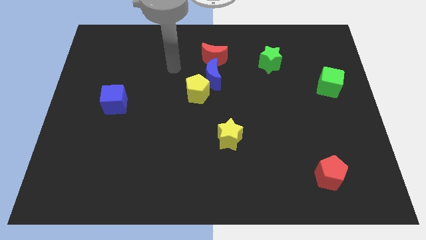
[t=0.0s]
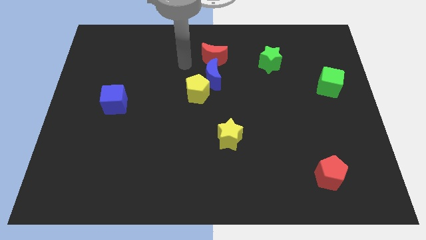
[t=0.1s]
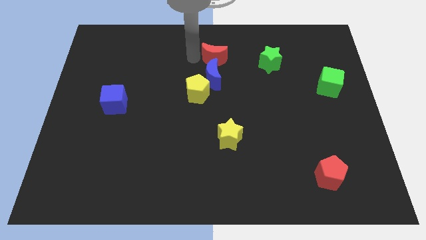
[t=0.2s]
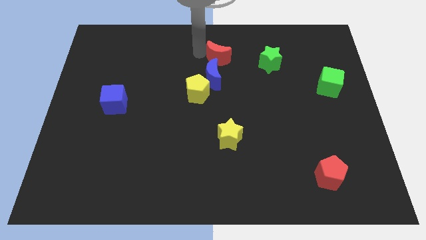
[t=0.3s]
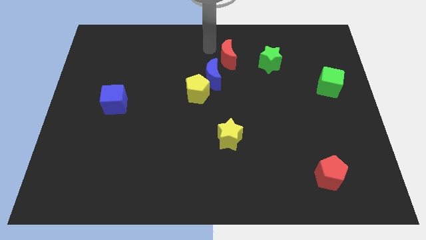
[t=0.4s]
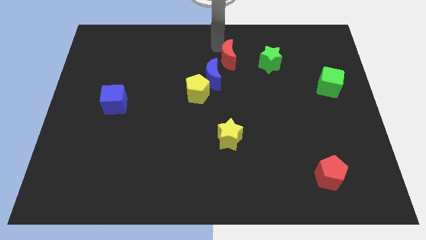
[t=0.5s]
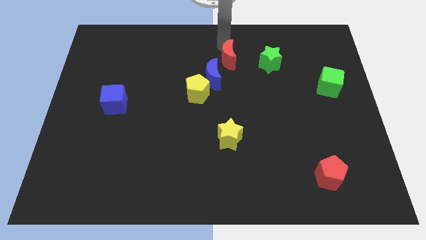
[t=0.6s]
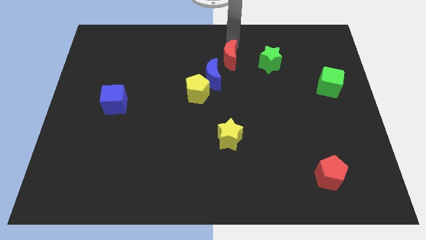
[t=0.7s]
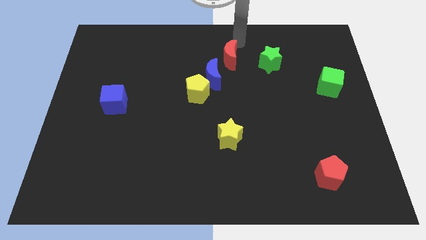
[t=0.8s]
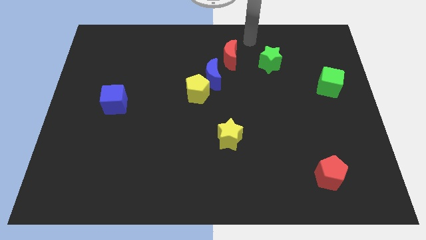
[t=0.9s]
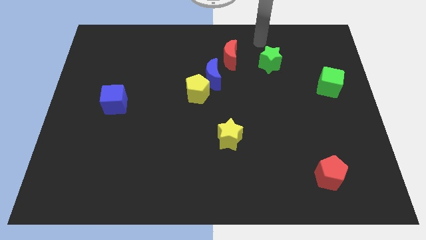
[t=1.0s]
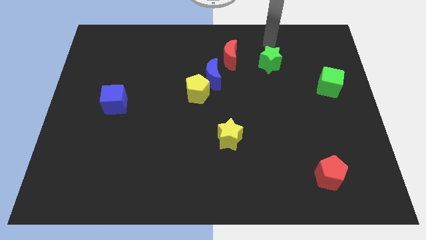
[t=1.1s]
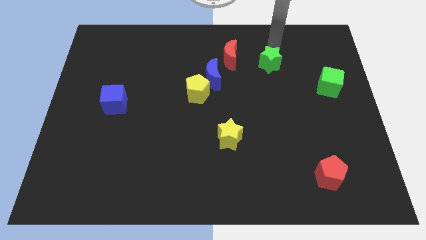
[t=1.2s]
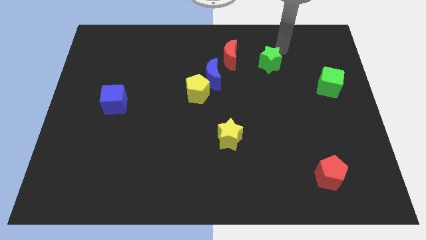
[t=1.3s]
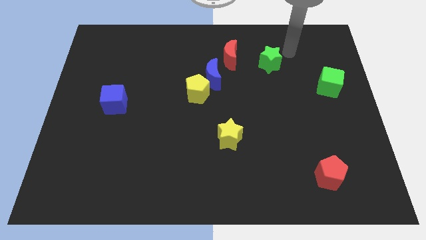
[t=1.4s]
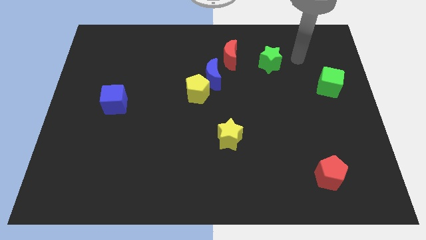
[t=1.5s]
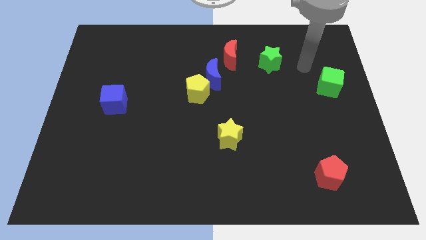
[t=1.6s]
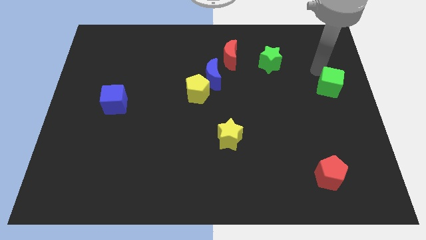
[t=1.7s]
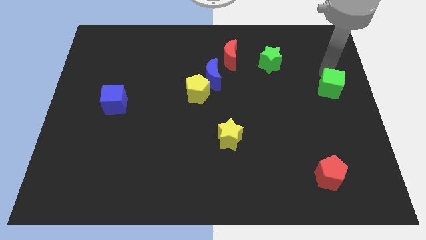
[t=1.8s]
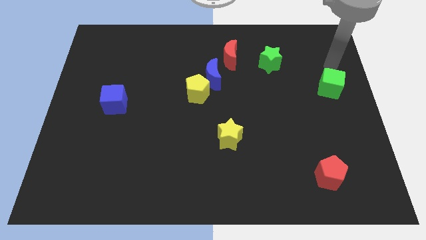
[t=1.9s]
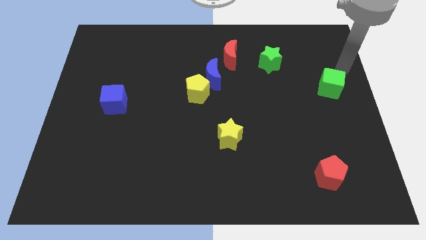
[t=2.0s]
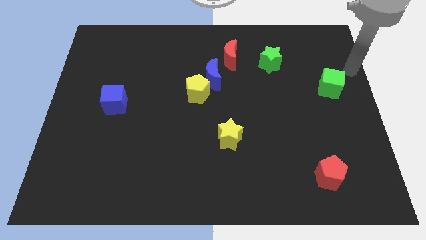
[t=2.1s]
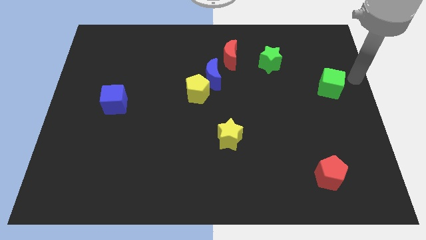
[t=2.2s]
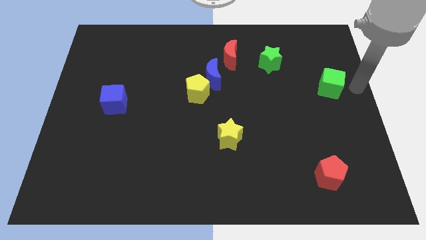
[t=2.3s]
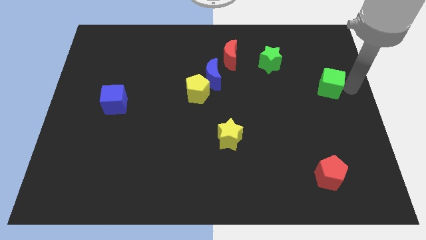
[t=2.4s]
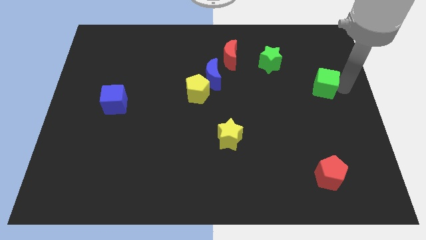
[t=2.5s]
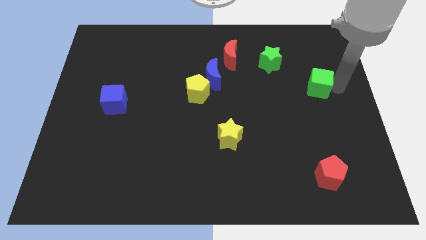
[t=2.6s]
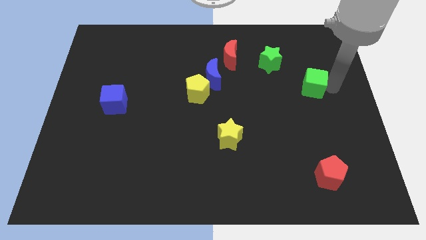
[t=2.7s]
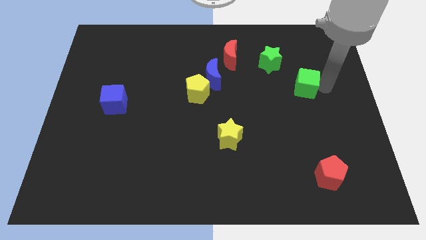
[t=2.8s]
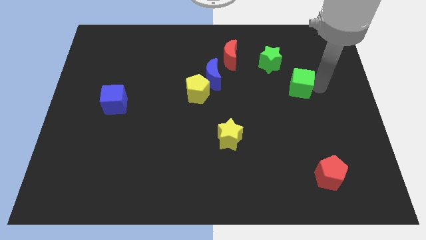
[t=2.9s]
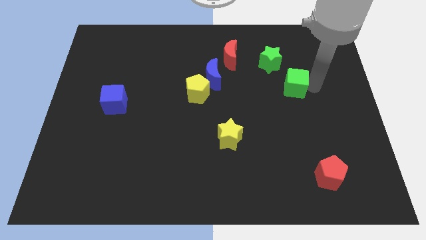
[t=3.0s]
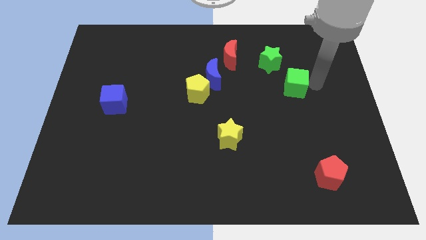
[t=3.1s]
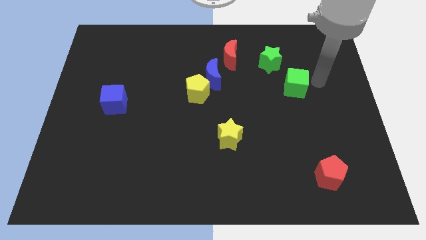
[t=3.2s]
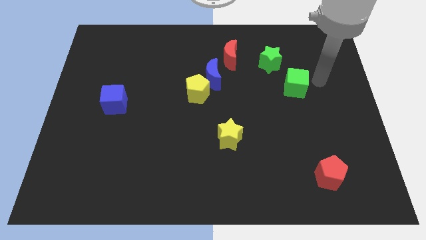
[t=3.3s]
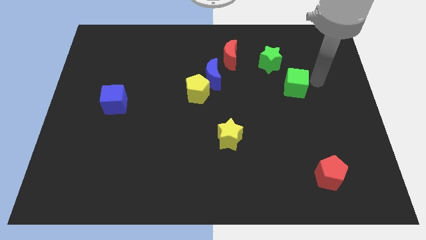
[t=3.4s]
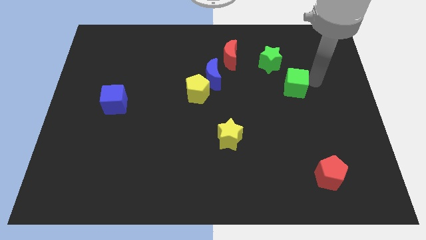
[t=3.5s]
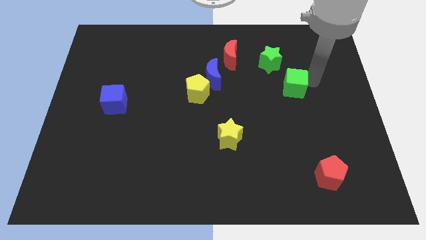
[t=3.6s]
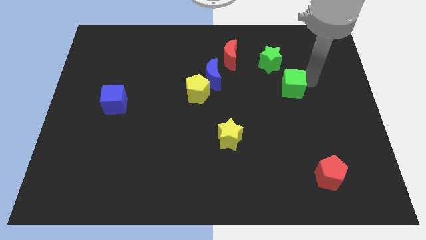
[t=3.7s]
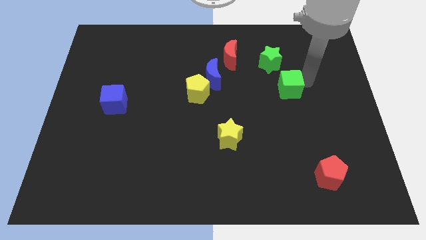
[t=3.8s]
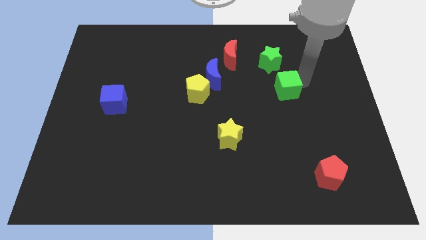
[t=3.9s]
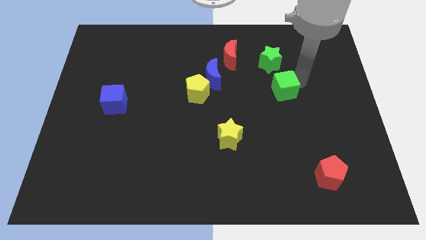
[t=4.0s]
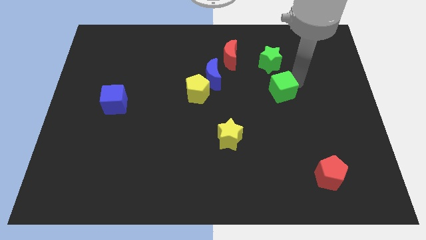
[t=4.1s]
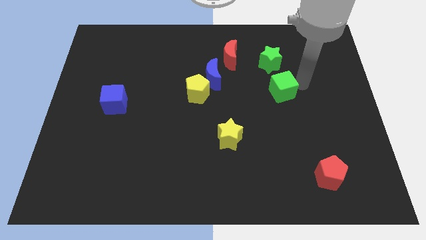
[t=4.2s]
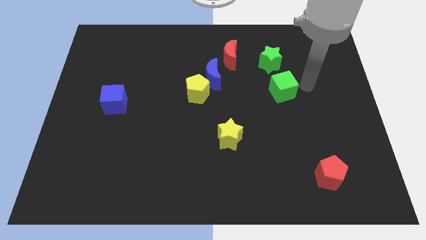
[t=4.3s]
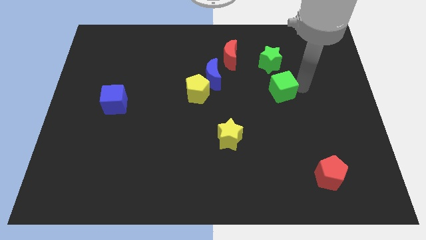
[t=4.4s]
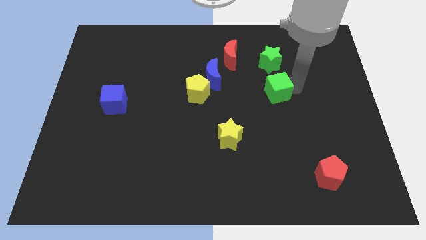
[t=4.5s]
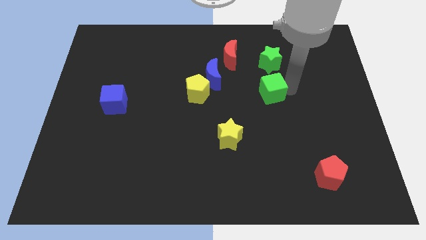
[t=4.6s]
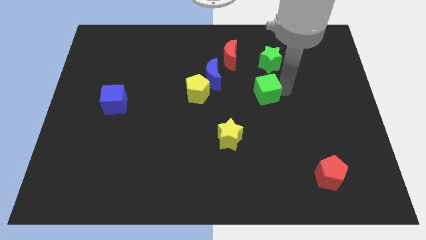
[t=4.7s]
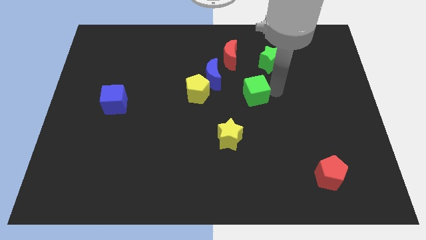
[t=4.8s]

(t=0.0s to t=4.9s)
slide the green cube to the center

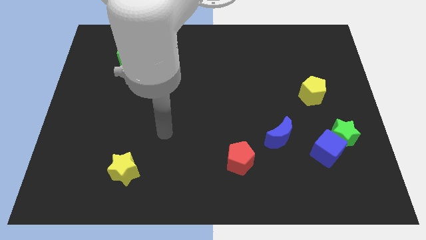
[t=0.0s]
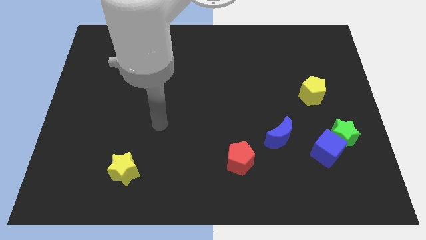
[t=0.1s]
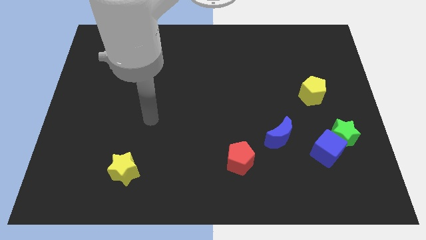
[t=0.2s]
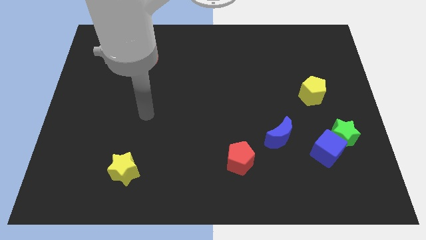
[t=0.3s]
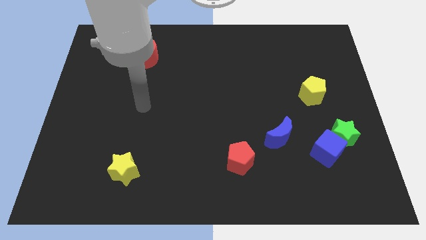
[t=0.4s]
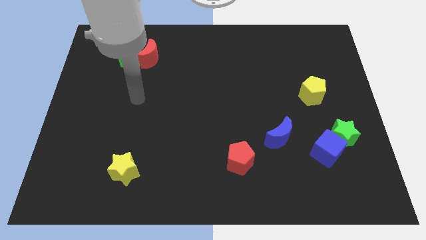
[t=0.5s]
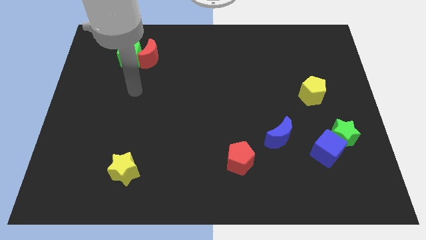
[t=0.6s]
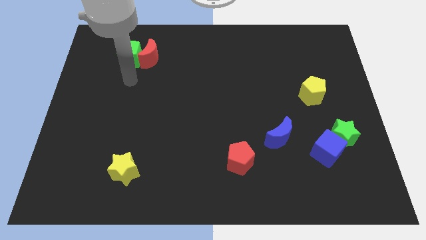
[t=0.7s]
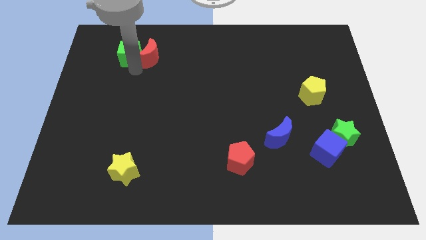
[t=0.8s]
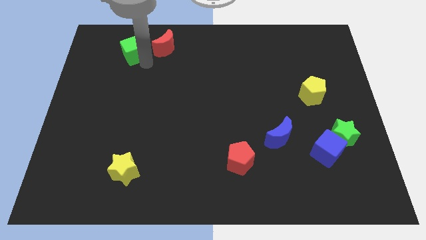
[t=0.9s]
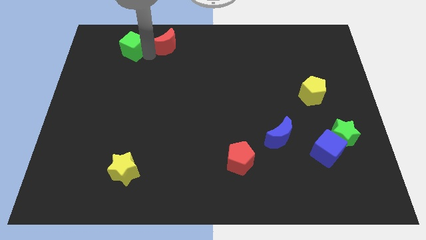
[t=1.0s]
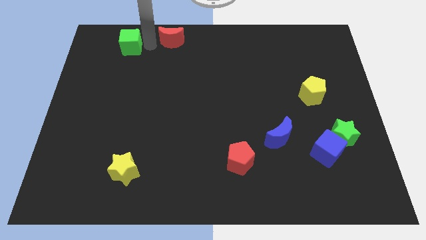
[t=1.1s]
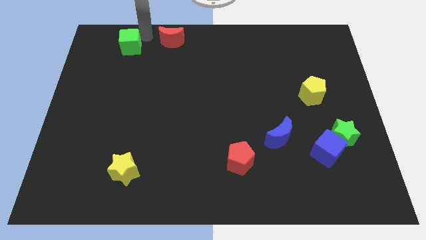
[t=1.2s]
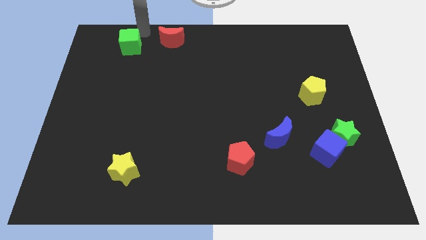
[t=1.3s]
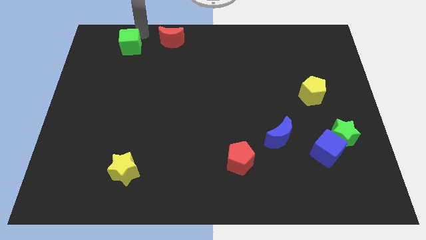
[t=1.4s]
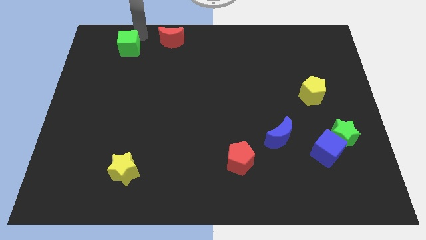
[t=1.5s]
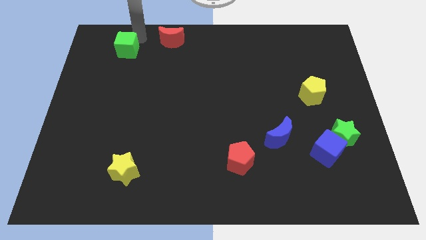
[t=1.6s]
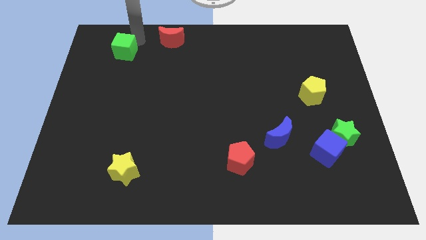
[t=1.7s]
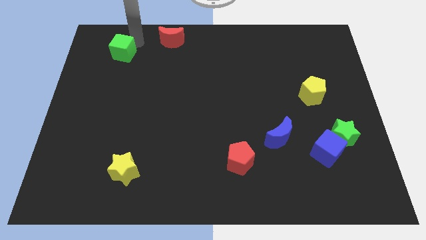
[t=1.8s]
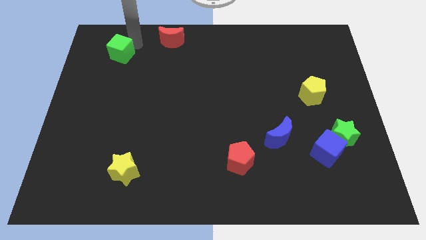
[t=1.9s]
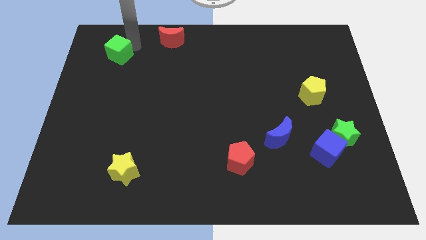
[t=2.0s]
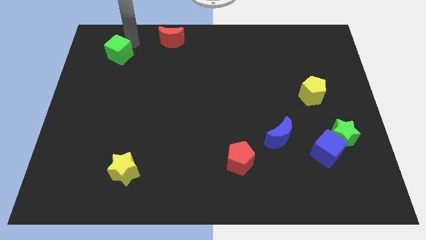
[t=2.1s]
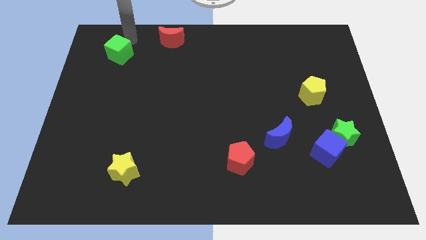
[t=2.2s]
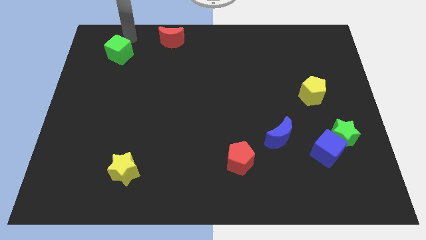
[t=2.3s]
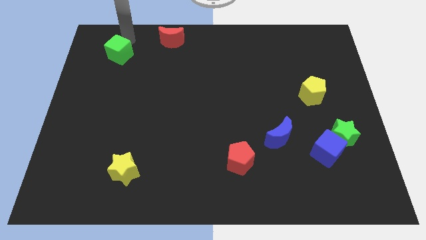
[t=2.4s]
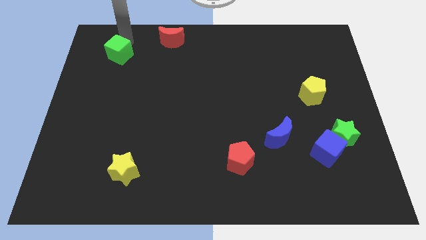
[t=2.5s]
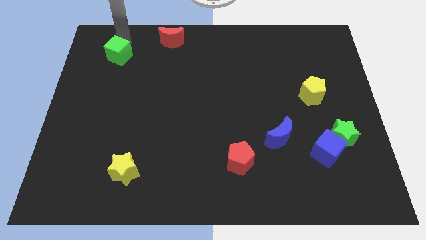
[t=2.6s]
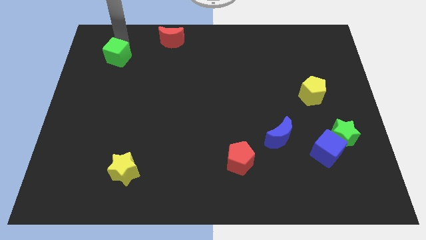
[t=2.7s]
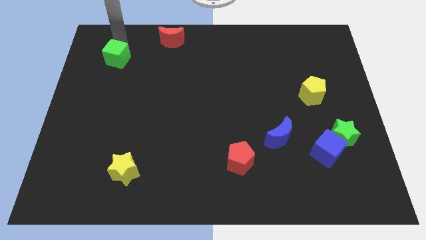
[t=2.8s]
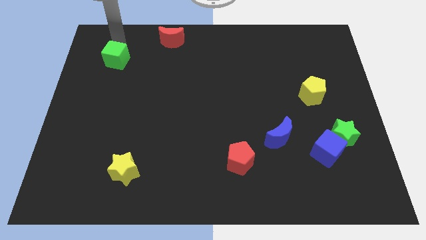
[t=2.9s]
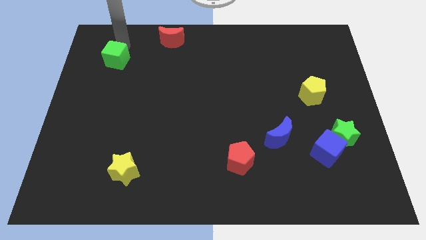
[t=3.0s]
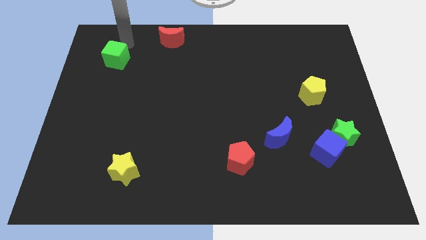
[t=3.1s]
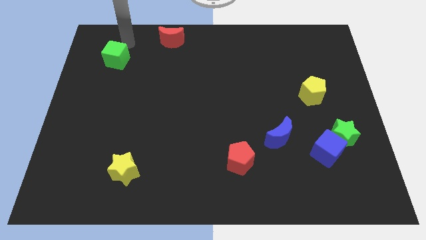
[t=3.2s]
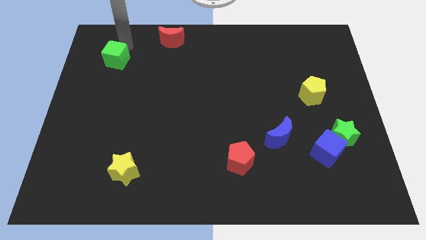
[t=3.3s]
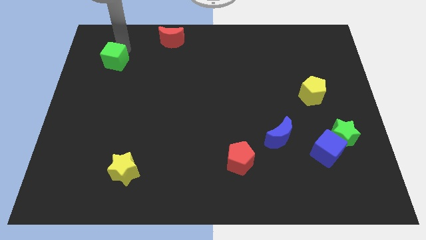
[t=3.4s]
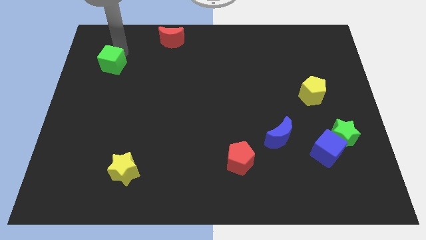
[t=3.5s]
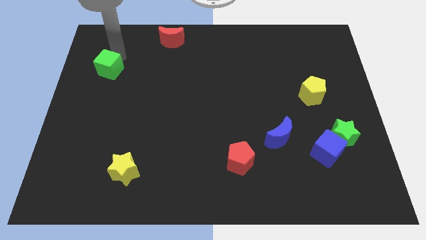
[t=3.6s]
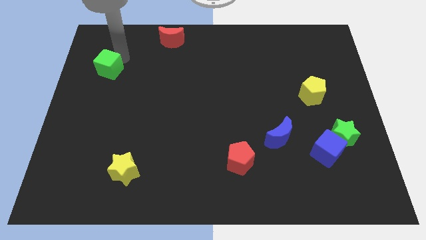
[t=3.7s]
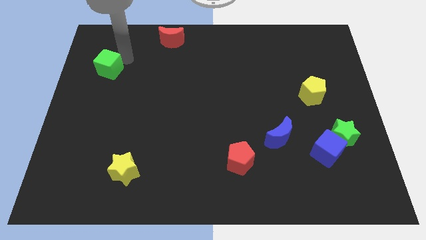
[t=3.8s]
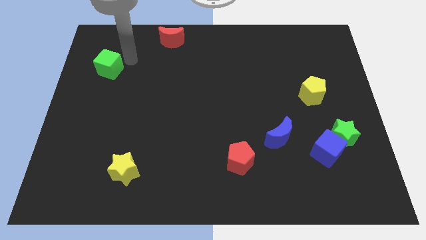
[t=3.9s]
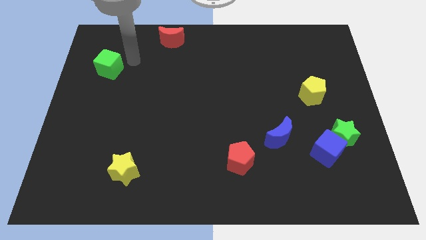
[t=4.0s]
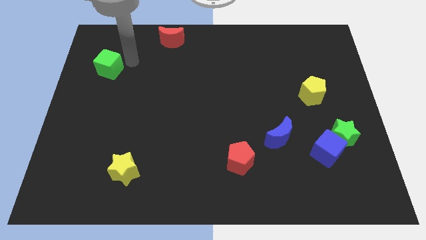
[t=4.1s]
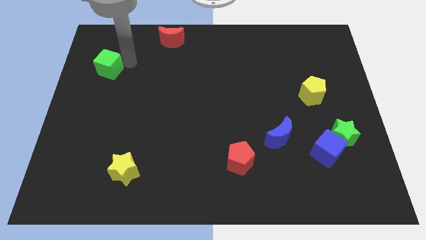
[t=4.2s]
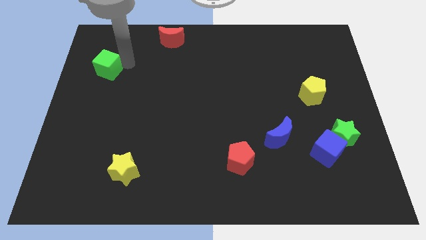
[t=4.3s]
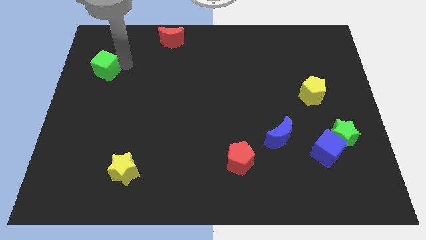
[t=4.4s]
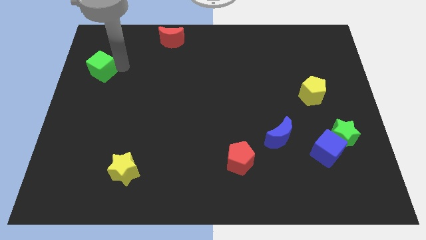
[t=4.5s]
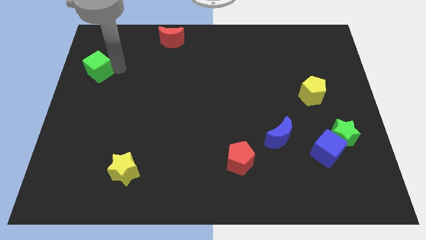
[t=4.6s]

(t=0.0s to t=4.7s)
push the green cube to the left side
